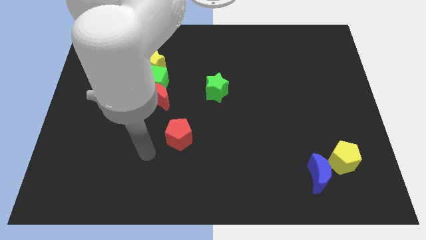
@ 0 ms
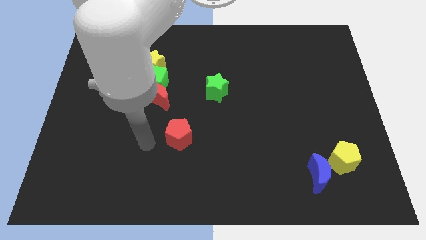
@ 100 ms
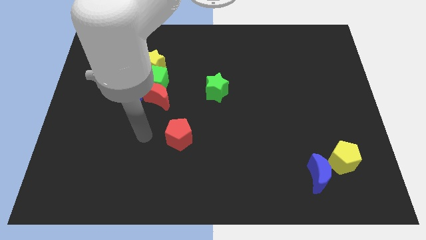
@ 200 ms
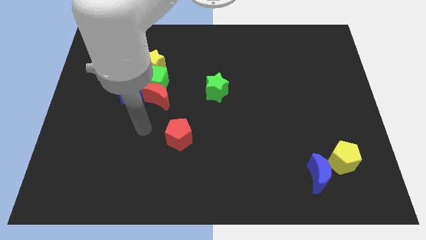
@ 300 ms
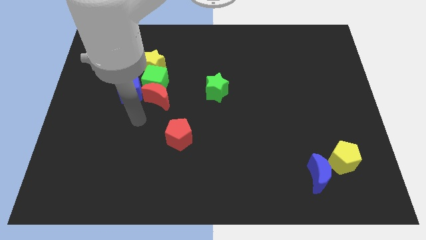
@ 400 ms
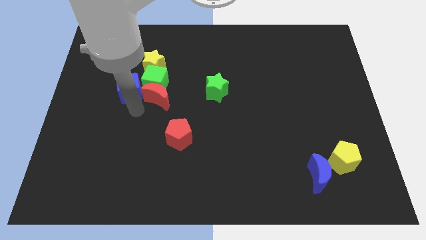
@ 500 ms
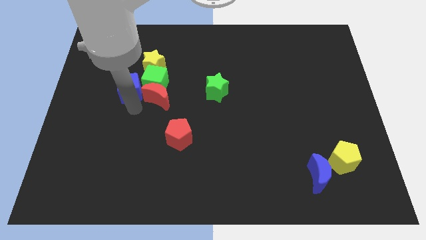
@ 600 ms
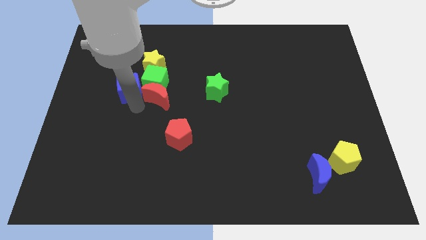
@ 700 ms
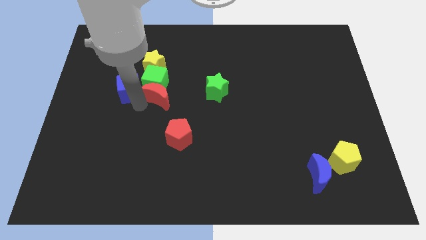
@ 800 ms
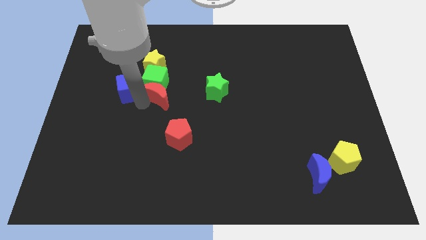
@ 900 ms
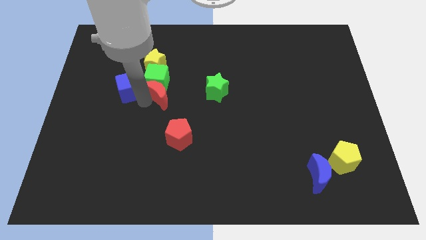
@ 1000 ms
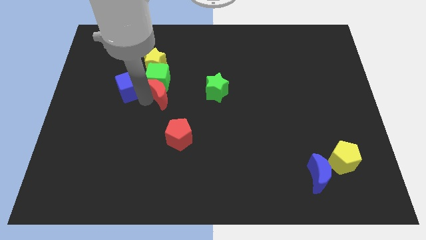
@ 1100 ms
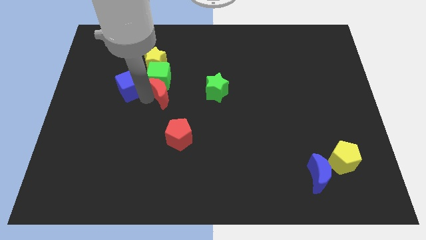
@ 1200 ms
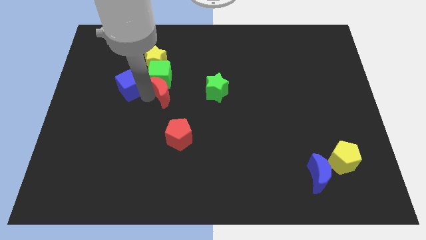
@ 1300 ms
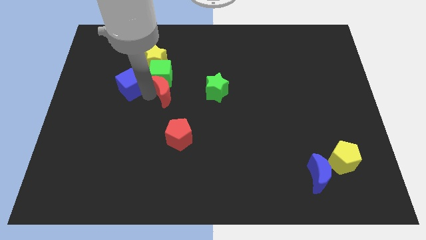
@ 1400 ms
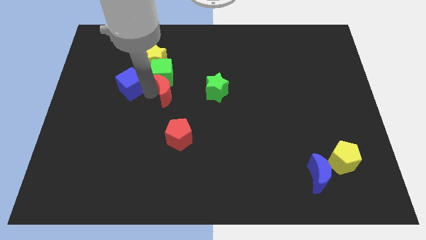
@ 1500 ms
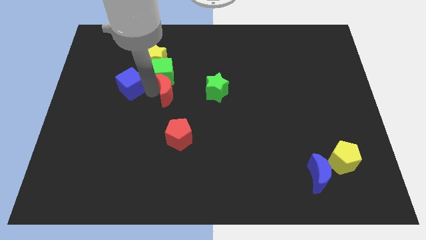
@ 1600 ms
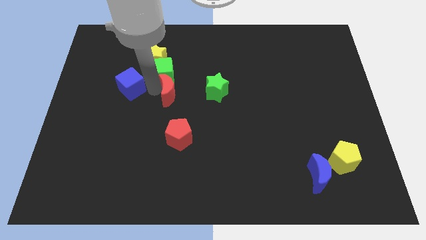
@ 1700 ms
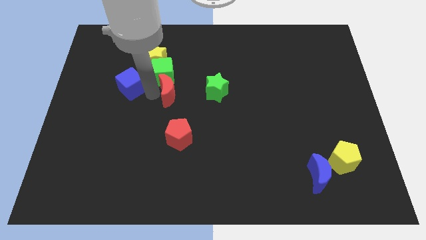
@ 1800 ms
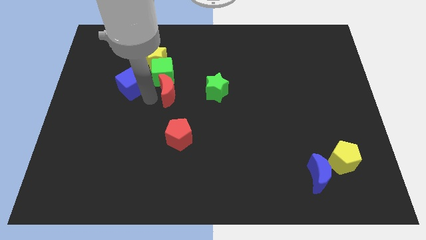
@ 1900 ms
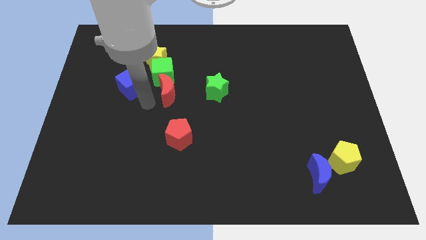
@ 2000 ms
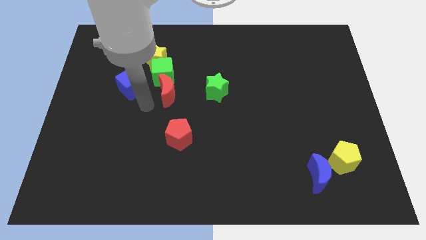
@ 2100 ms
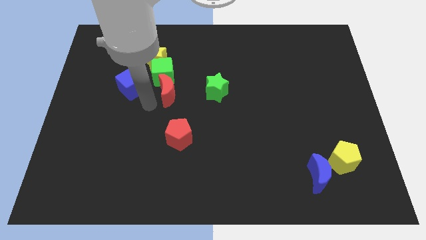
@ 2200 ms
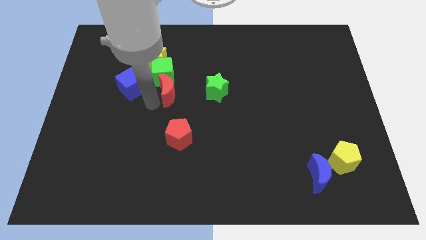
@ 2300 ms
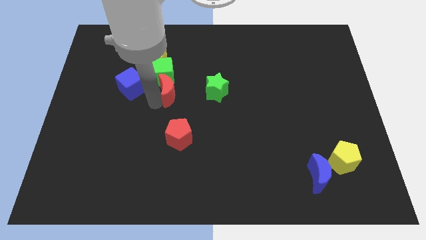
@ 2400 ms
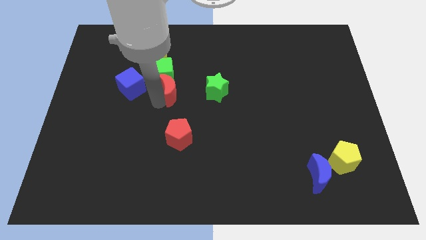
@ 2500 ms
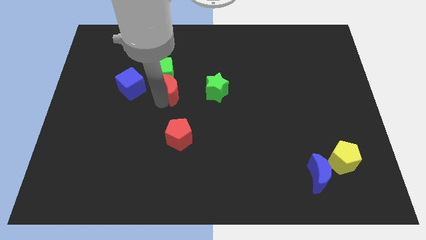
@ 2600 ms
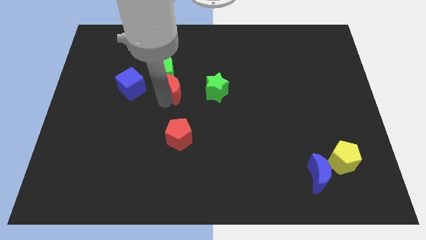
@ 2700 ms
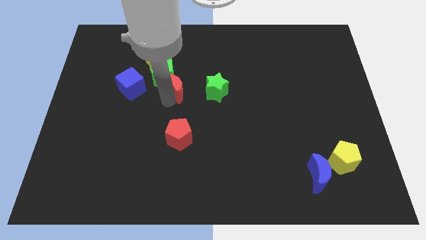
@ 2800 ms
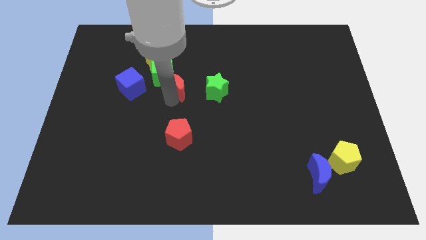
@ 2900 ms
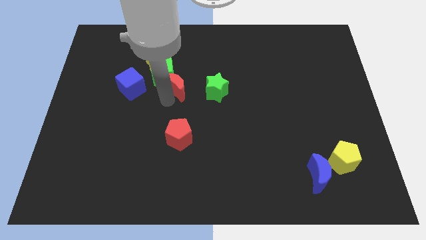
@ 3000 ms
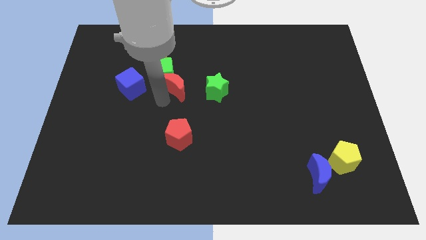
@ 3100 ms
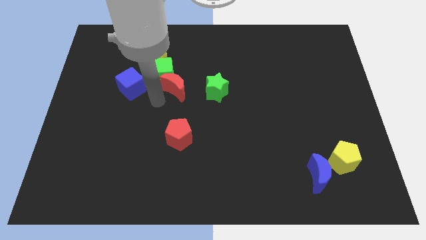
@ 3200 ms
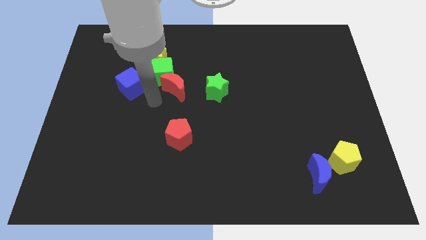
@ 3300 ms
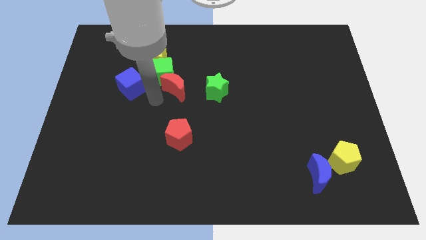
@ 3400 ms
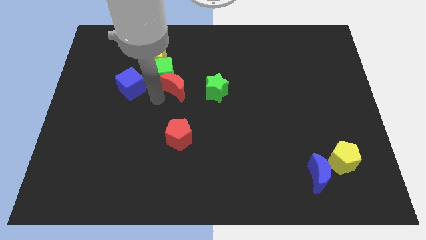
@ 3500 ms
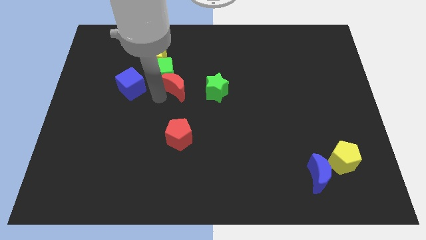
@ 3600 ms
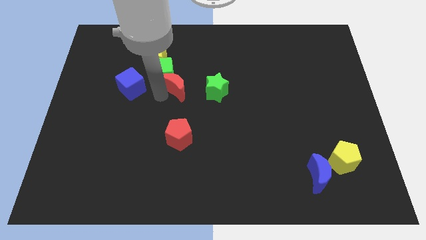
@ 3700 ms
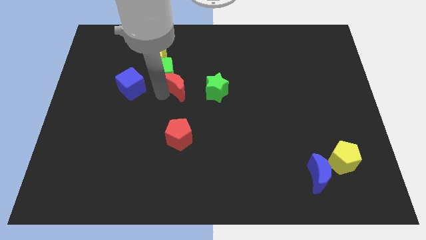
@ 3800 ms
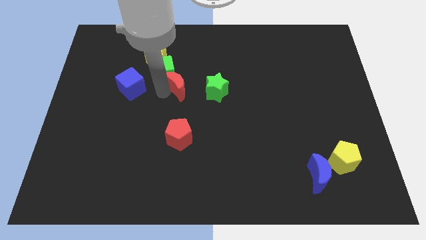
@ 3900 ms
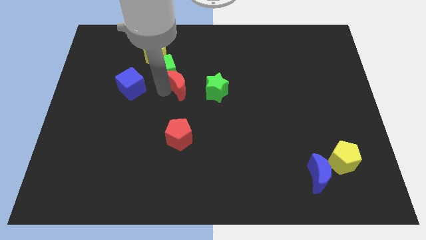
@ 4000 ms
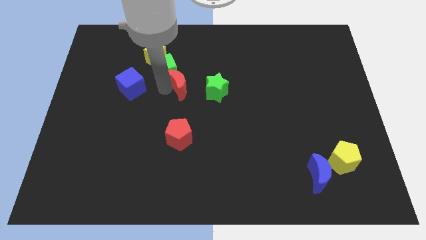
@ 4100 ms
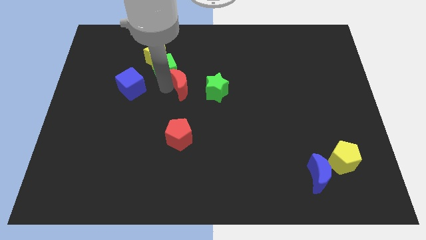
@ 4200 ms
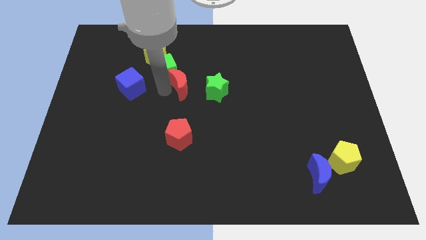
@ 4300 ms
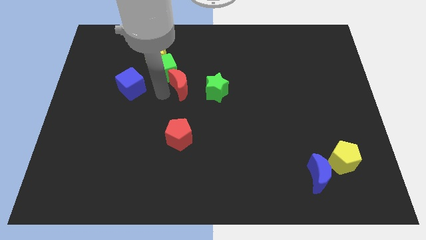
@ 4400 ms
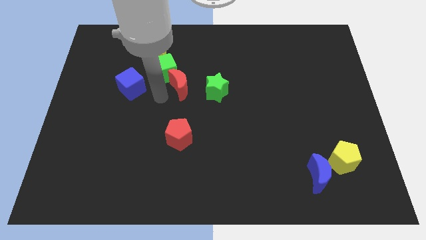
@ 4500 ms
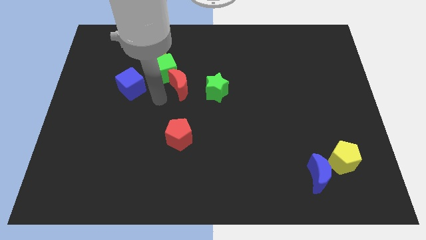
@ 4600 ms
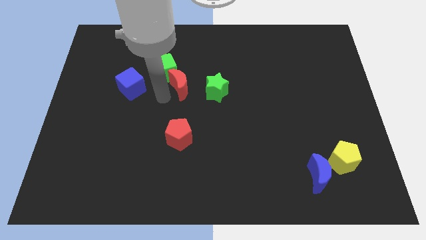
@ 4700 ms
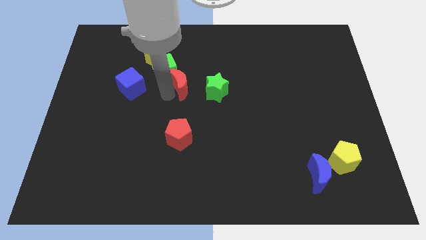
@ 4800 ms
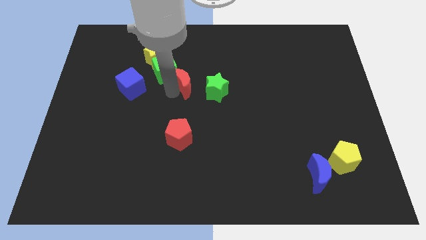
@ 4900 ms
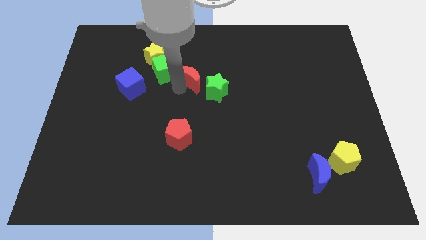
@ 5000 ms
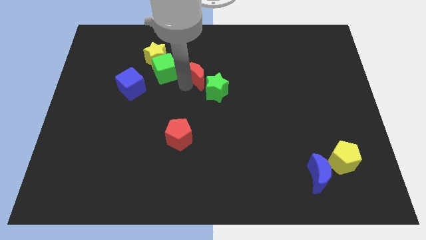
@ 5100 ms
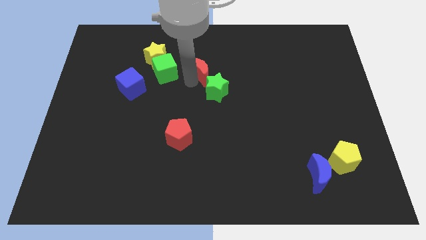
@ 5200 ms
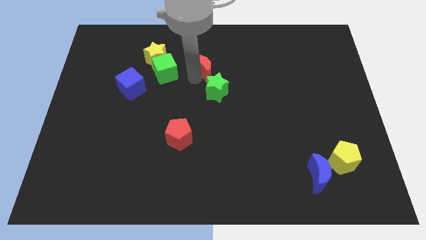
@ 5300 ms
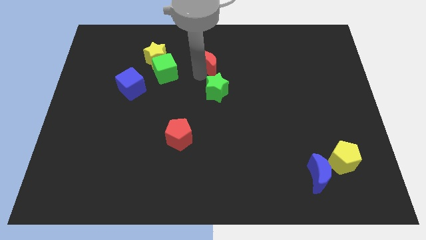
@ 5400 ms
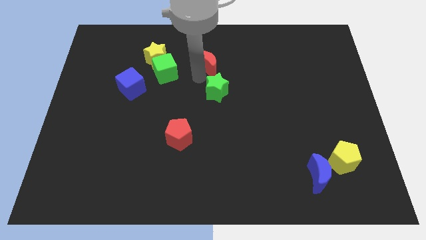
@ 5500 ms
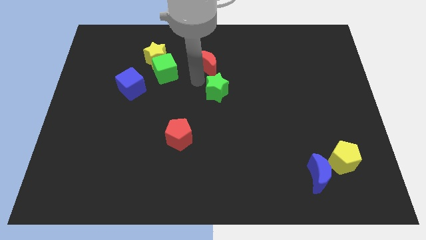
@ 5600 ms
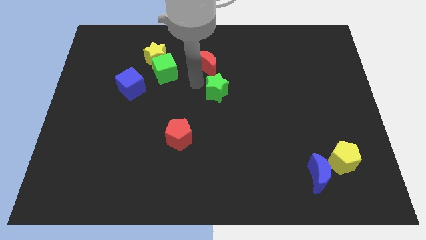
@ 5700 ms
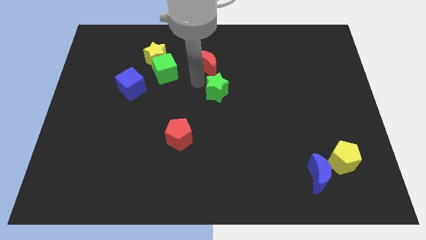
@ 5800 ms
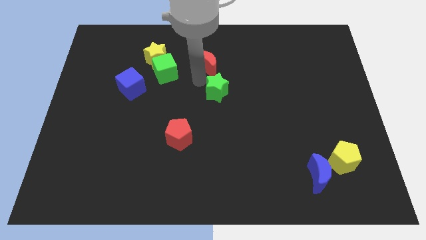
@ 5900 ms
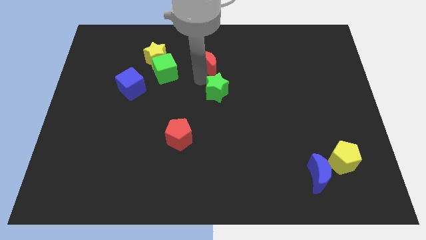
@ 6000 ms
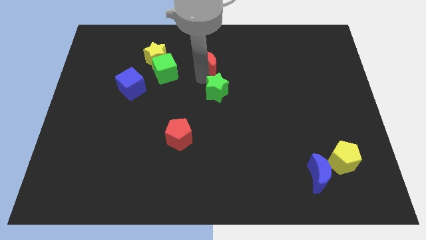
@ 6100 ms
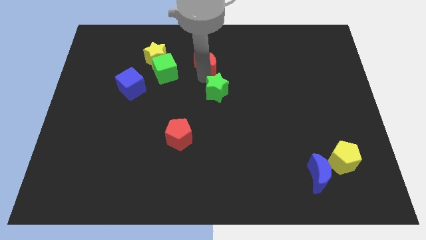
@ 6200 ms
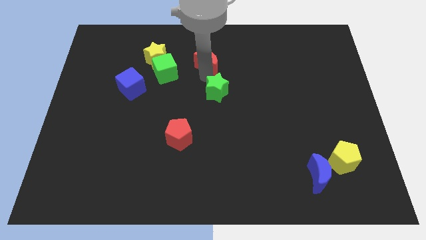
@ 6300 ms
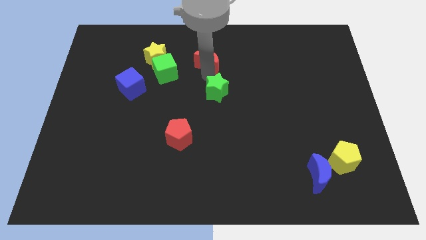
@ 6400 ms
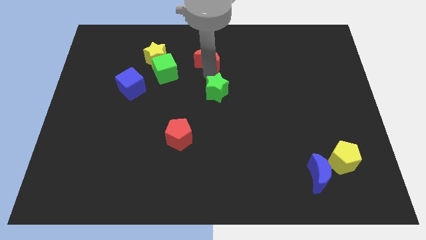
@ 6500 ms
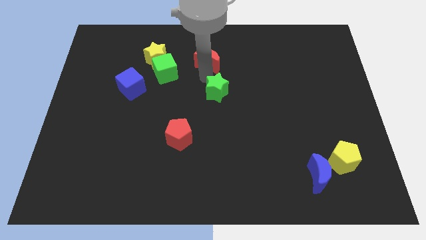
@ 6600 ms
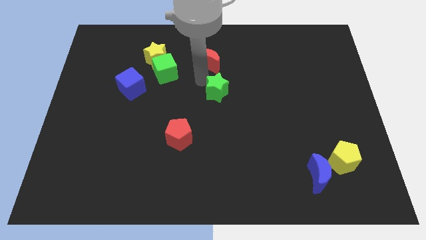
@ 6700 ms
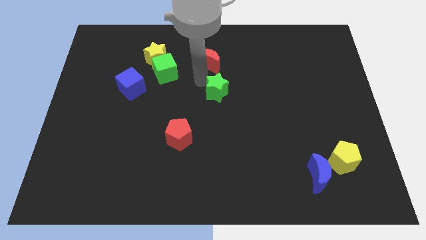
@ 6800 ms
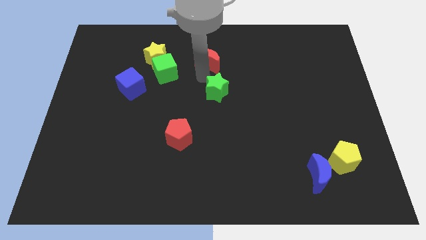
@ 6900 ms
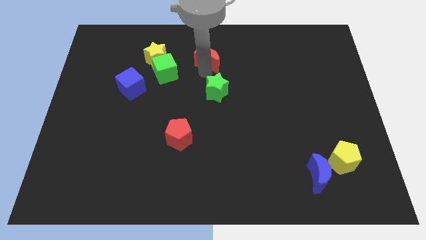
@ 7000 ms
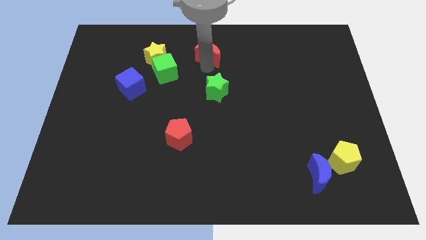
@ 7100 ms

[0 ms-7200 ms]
slide the red moon to the top side
